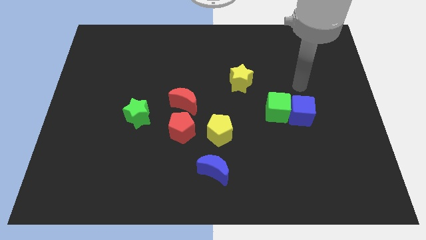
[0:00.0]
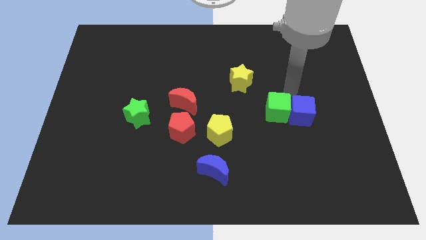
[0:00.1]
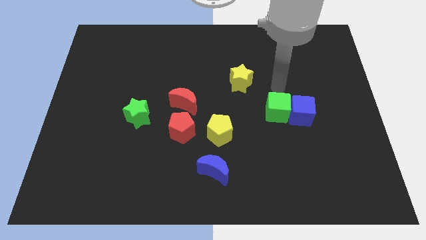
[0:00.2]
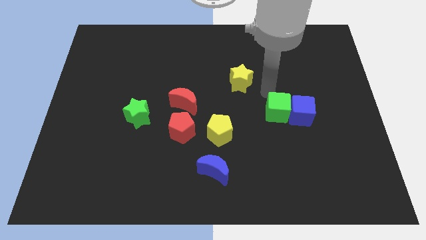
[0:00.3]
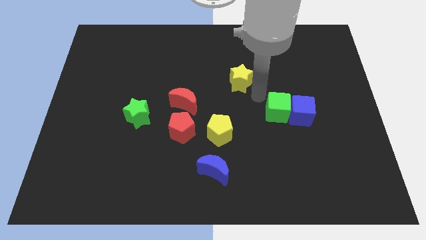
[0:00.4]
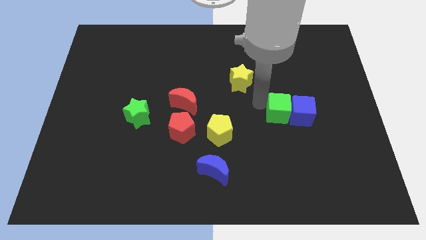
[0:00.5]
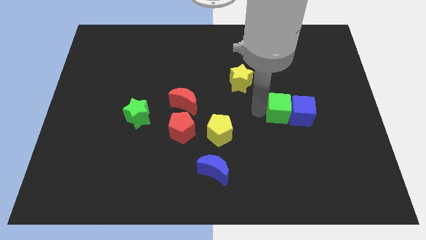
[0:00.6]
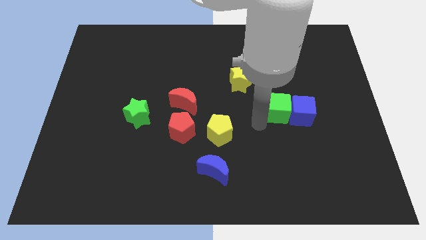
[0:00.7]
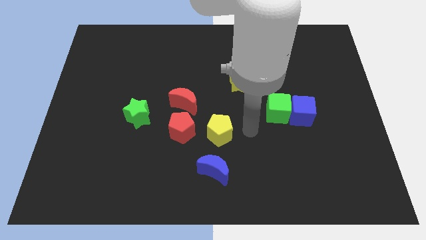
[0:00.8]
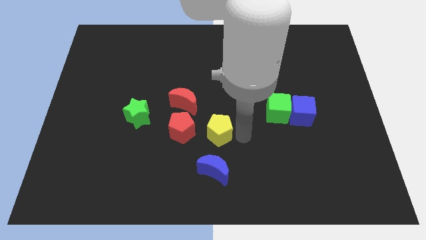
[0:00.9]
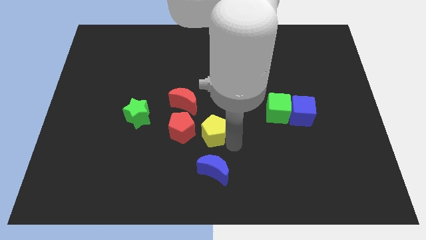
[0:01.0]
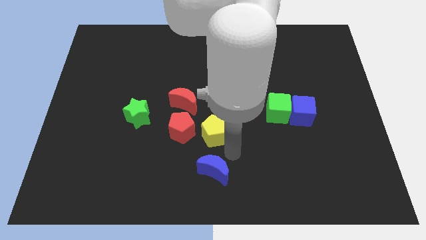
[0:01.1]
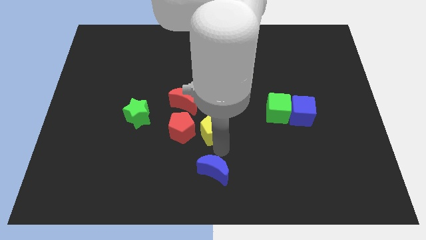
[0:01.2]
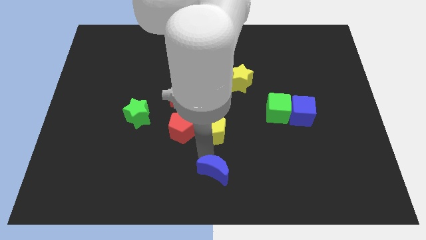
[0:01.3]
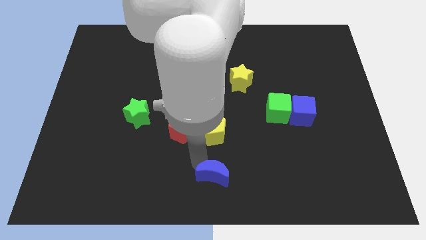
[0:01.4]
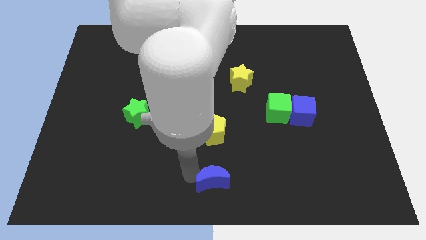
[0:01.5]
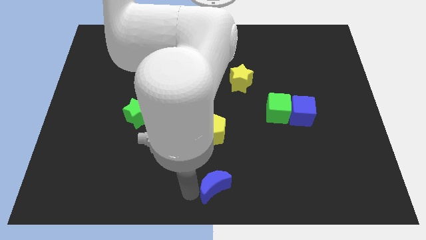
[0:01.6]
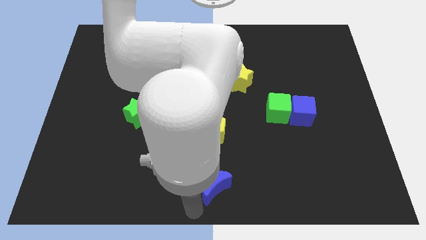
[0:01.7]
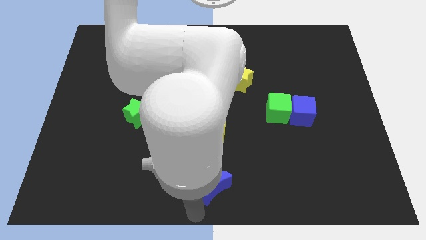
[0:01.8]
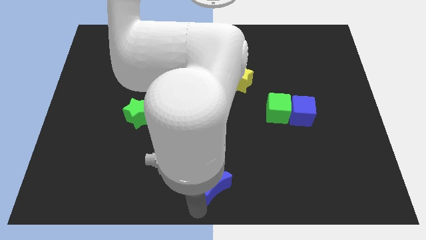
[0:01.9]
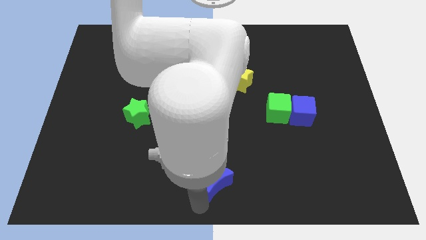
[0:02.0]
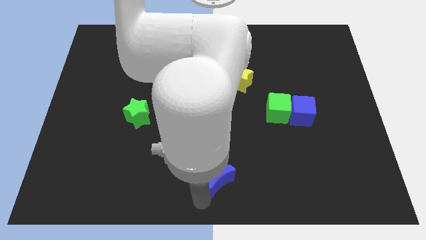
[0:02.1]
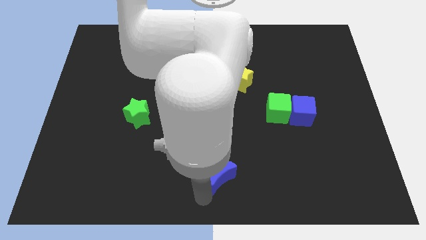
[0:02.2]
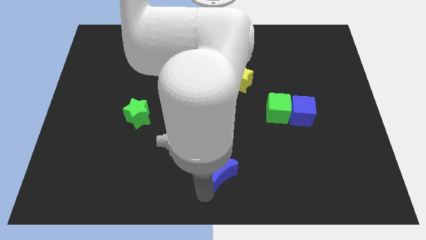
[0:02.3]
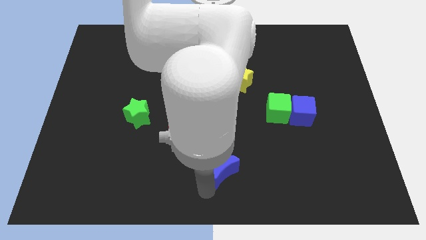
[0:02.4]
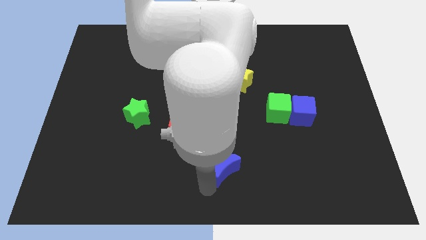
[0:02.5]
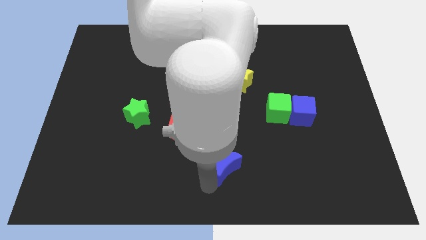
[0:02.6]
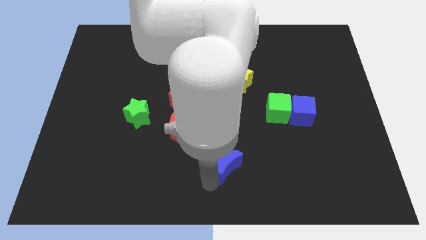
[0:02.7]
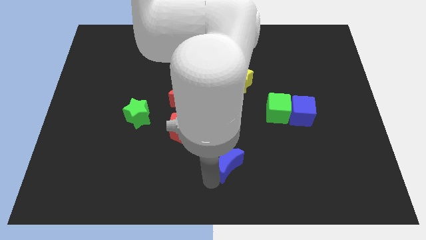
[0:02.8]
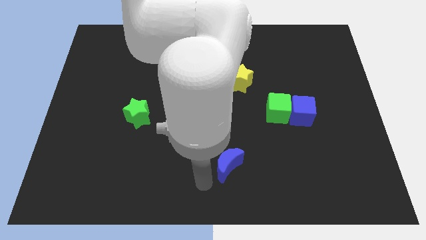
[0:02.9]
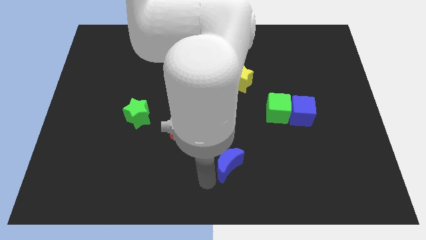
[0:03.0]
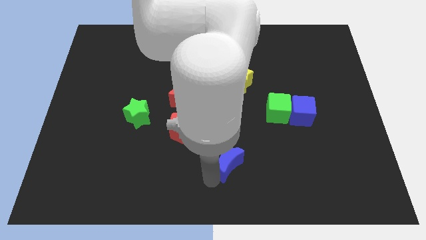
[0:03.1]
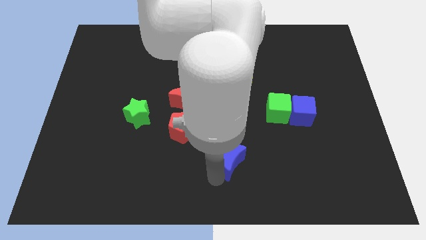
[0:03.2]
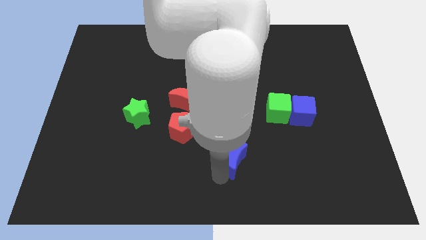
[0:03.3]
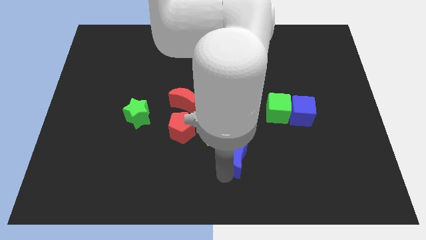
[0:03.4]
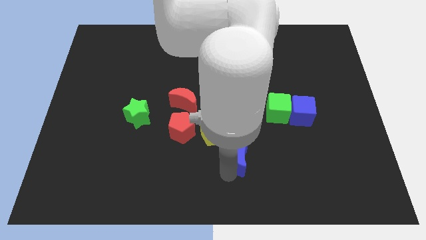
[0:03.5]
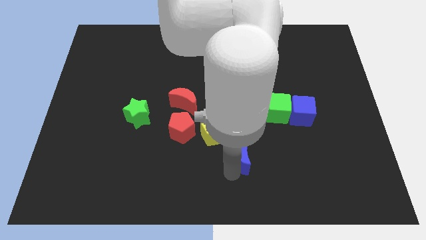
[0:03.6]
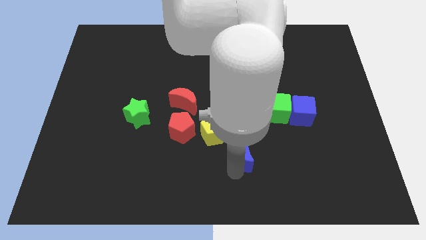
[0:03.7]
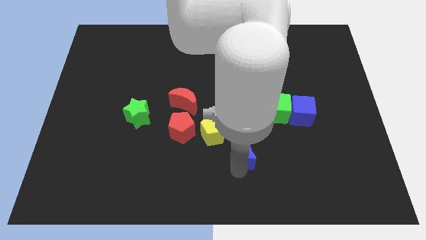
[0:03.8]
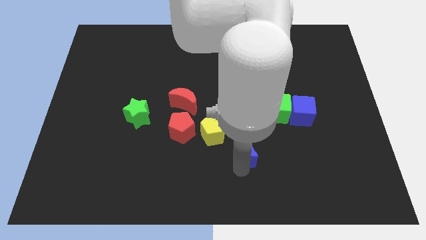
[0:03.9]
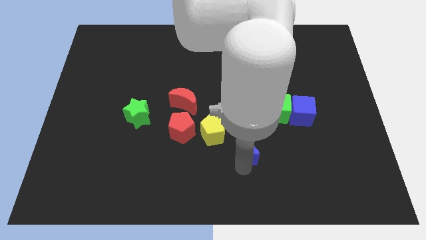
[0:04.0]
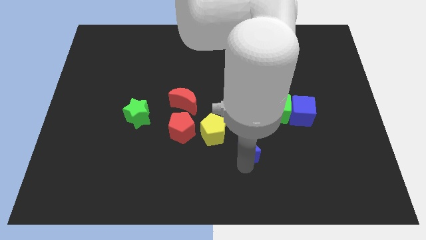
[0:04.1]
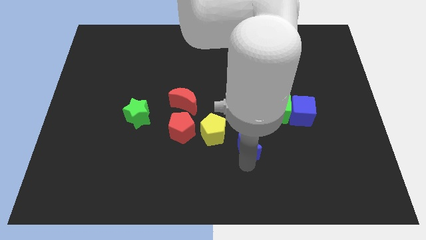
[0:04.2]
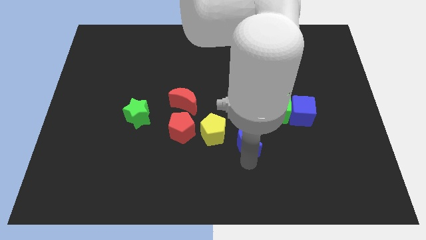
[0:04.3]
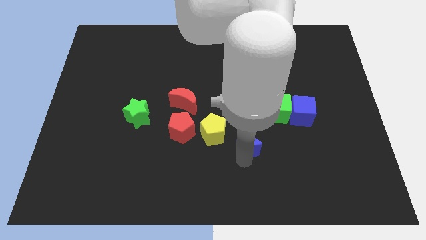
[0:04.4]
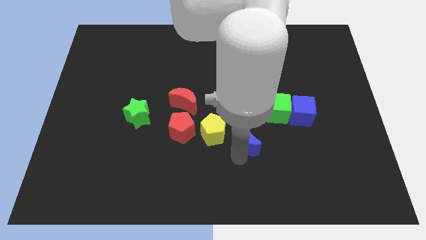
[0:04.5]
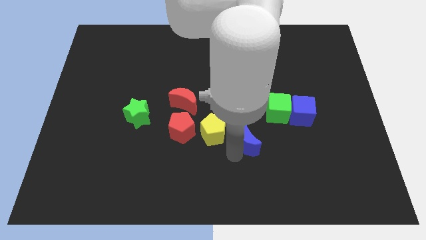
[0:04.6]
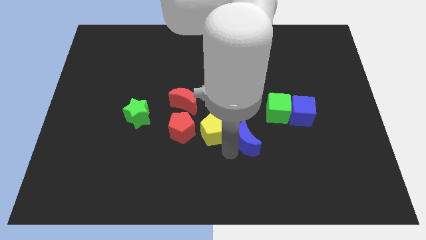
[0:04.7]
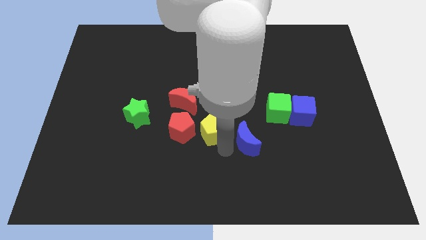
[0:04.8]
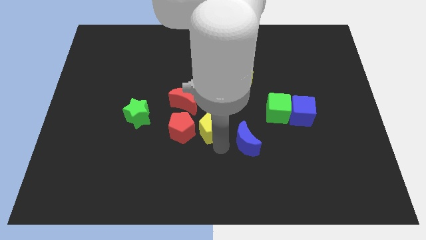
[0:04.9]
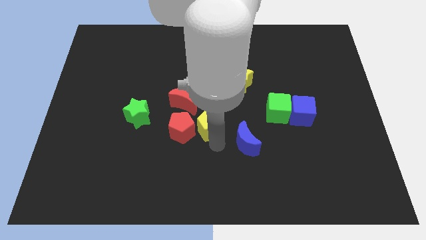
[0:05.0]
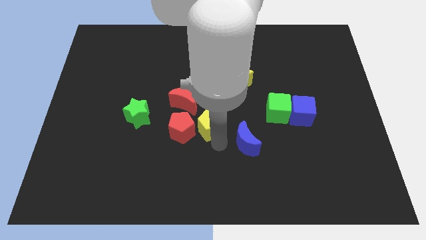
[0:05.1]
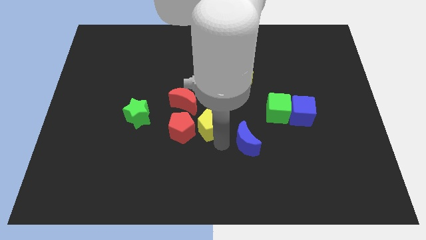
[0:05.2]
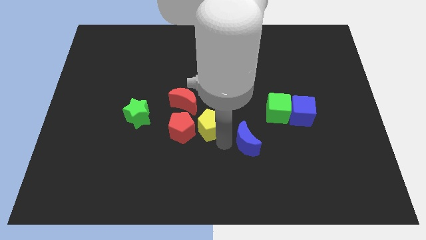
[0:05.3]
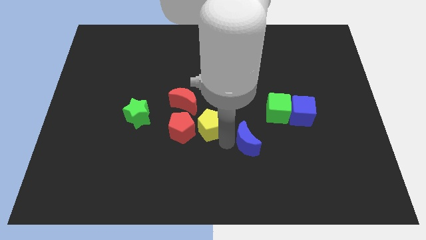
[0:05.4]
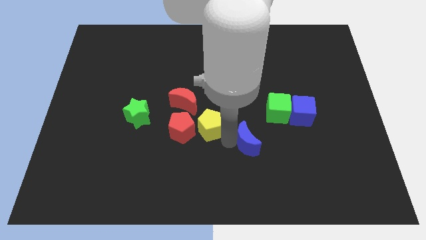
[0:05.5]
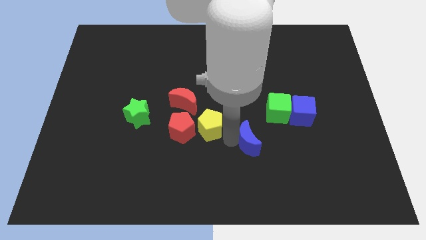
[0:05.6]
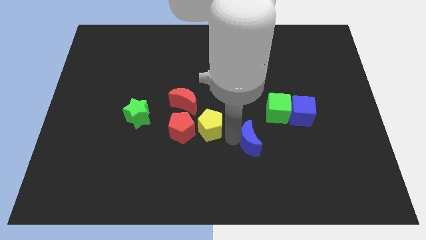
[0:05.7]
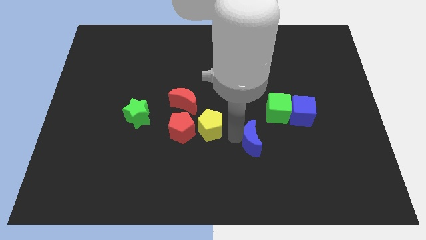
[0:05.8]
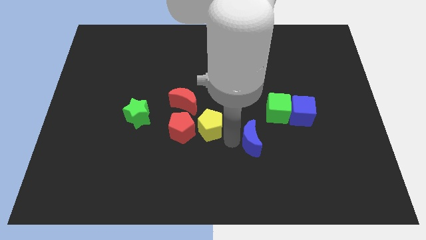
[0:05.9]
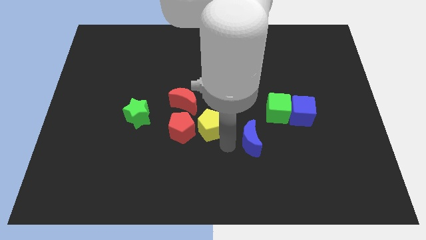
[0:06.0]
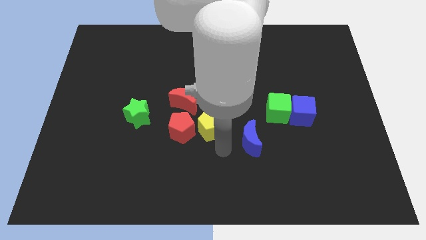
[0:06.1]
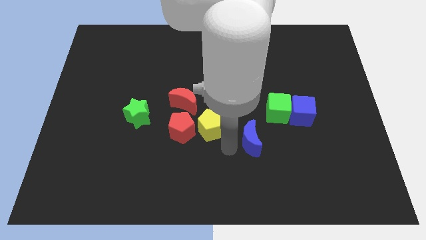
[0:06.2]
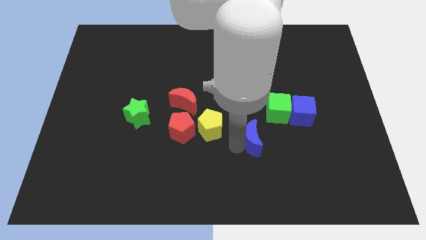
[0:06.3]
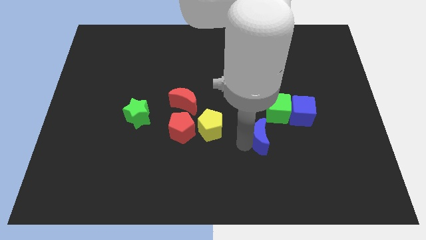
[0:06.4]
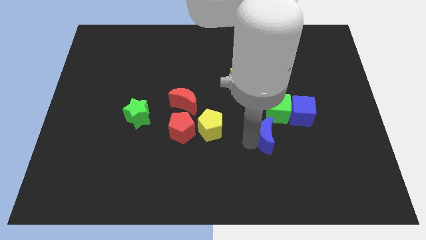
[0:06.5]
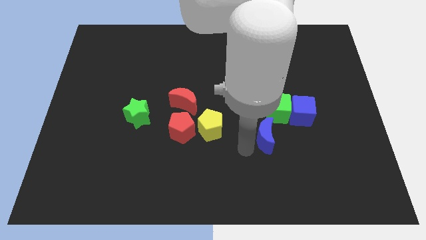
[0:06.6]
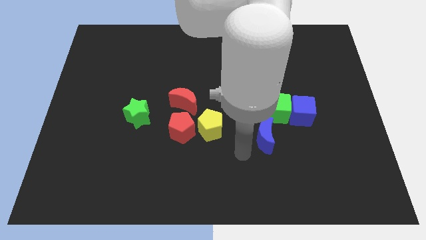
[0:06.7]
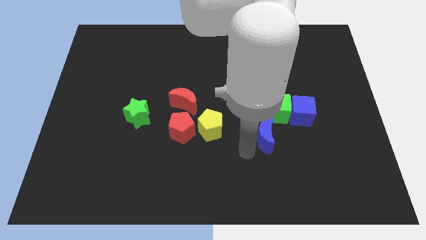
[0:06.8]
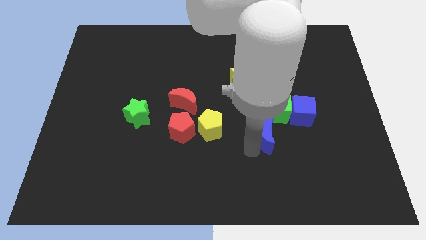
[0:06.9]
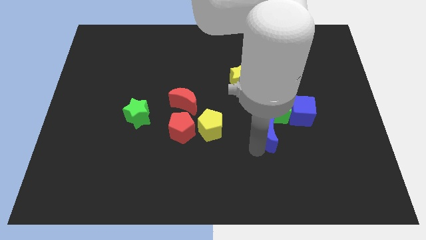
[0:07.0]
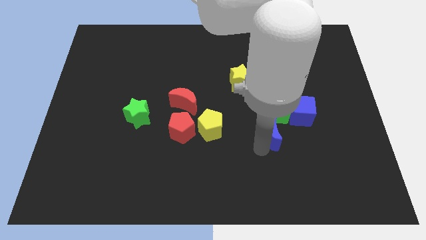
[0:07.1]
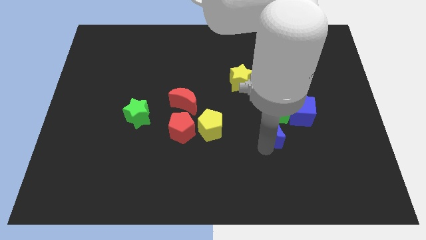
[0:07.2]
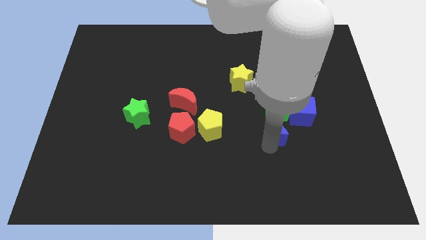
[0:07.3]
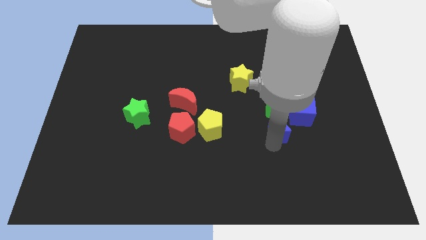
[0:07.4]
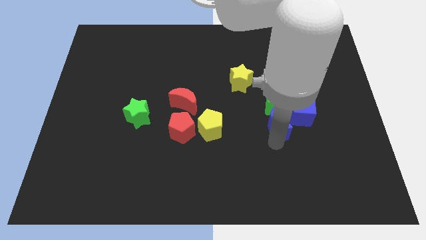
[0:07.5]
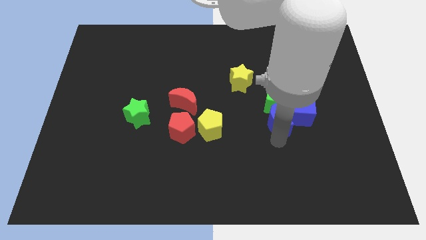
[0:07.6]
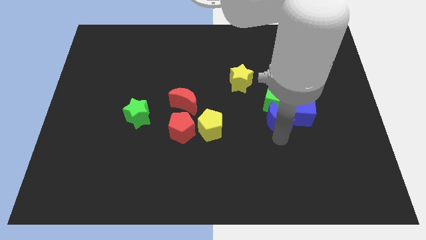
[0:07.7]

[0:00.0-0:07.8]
slide the blue moon close to the blue cube
